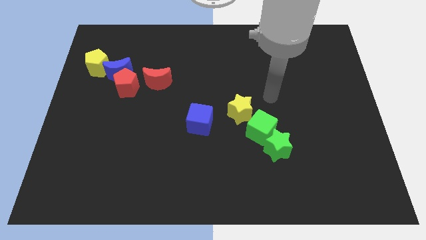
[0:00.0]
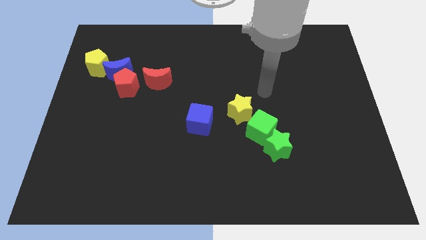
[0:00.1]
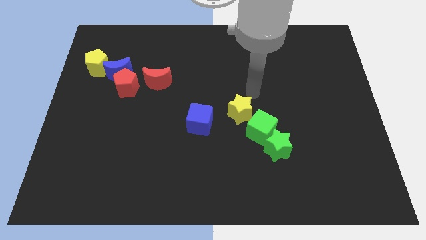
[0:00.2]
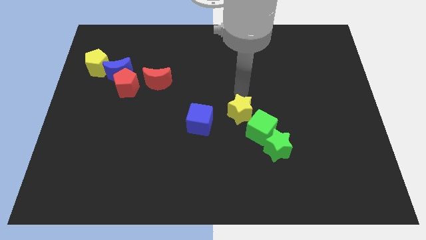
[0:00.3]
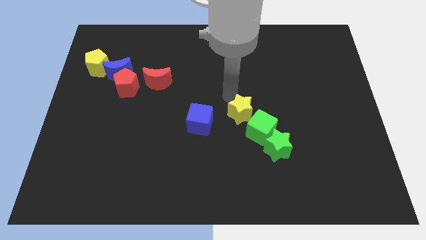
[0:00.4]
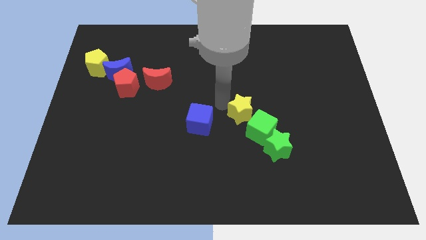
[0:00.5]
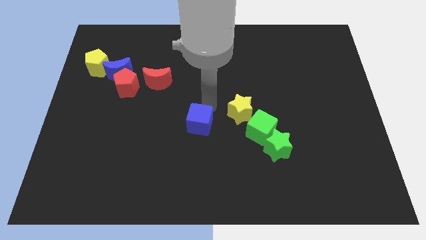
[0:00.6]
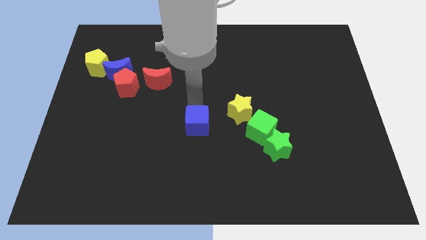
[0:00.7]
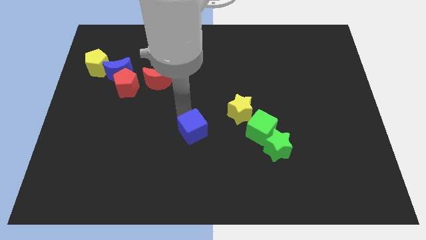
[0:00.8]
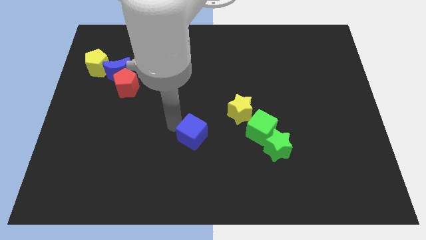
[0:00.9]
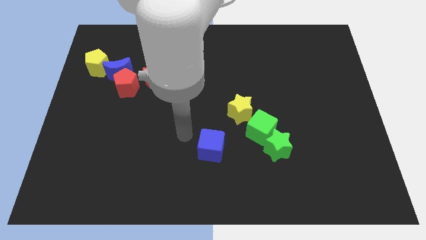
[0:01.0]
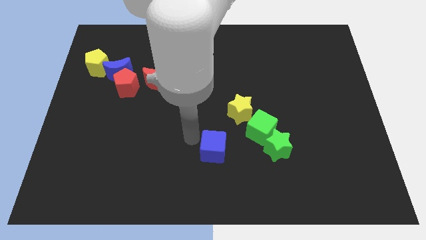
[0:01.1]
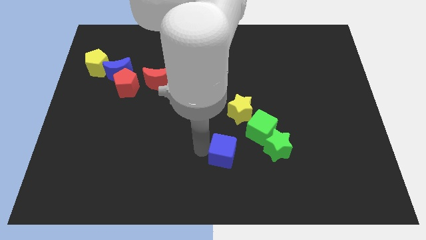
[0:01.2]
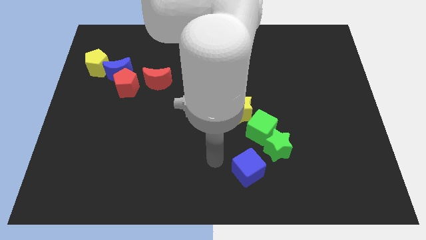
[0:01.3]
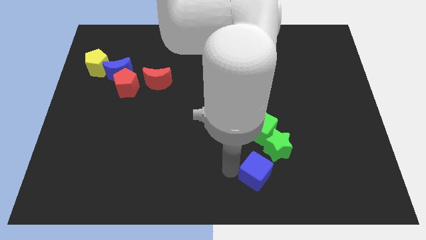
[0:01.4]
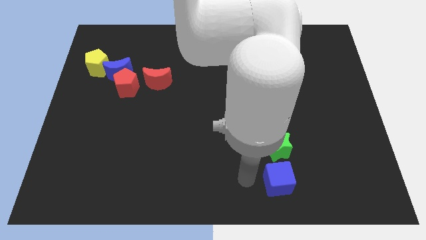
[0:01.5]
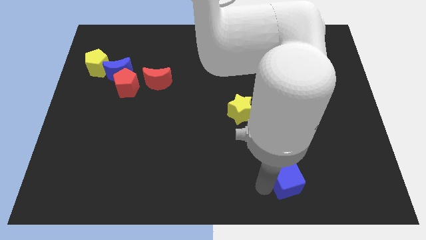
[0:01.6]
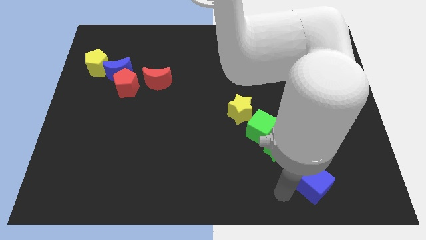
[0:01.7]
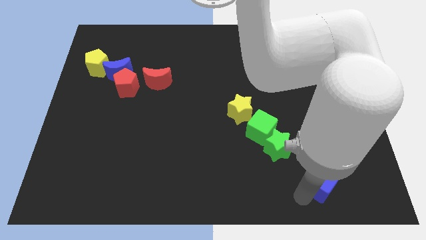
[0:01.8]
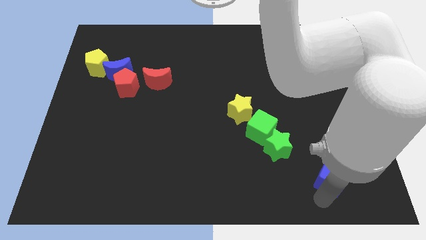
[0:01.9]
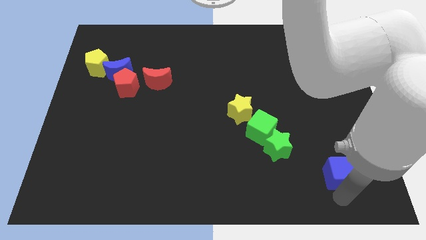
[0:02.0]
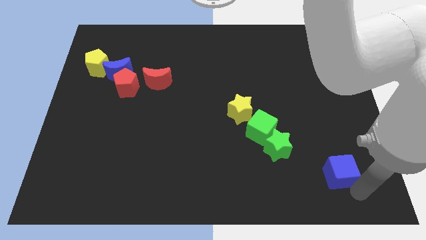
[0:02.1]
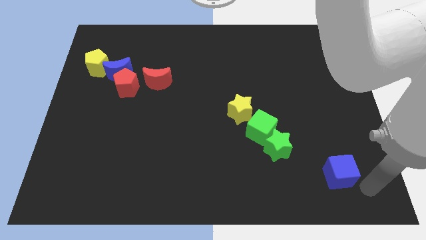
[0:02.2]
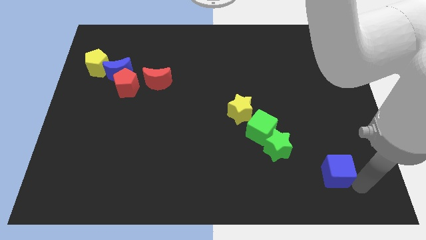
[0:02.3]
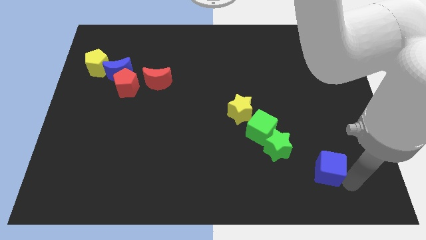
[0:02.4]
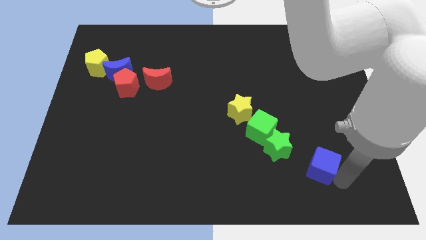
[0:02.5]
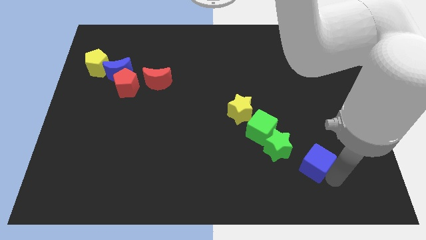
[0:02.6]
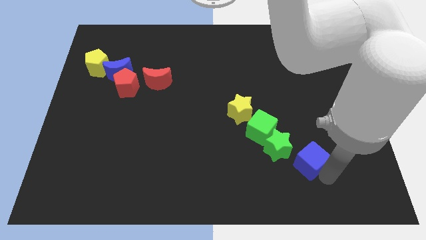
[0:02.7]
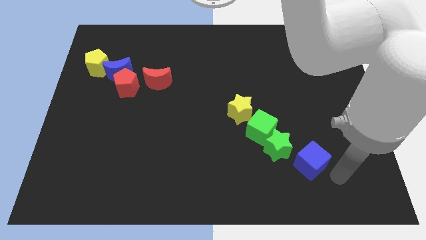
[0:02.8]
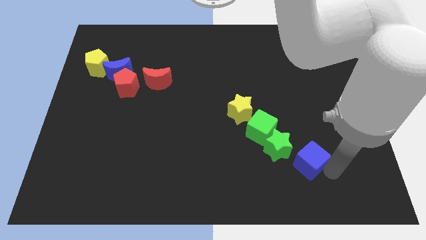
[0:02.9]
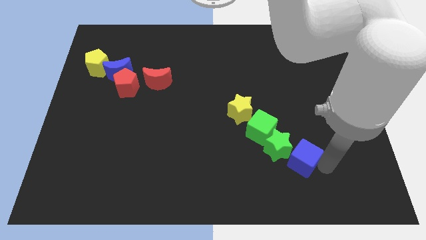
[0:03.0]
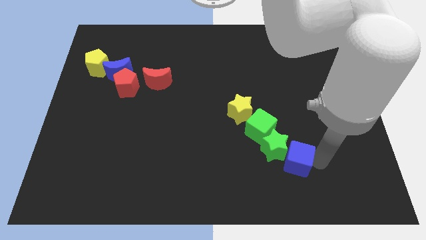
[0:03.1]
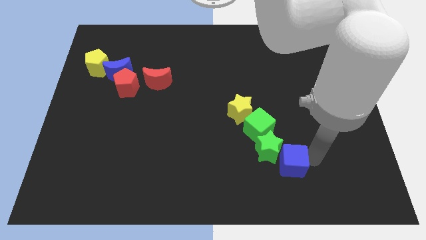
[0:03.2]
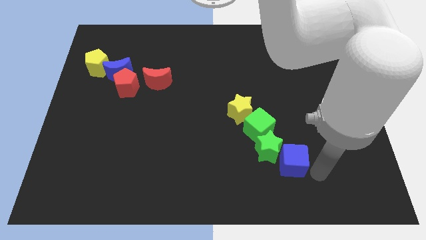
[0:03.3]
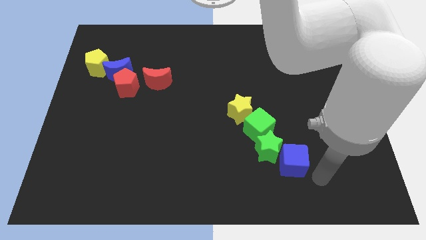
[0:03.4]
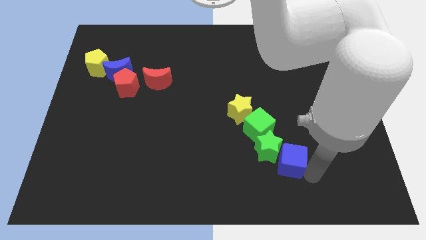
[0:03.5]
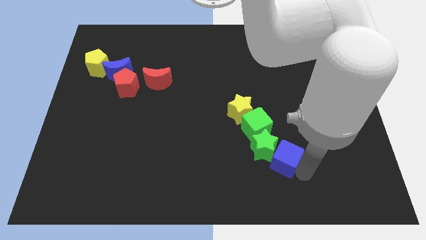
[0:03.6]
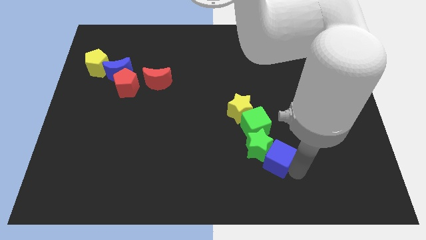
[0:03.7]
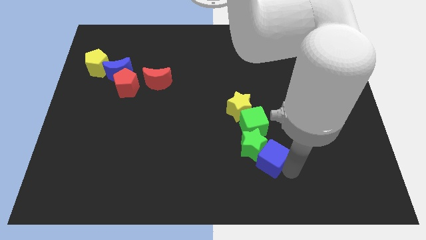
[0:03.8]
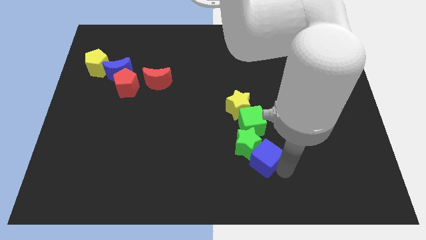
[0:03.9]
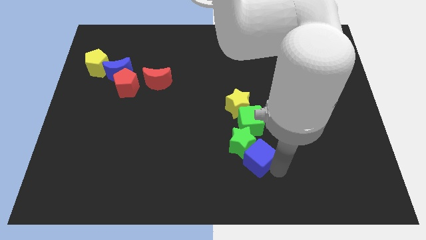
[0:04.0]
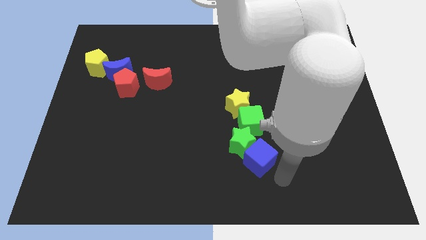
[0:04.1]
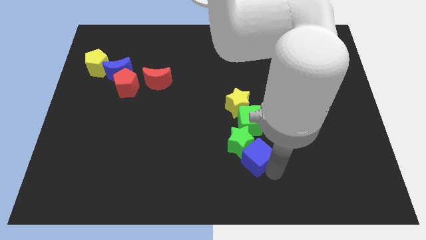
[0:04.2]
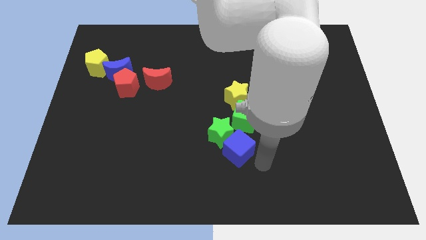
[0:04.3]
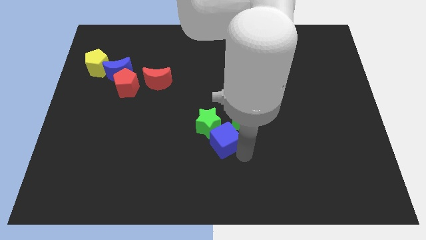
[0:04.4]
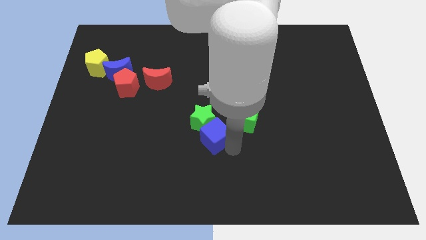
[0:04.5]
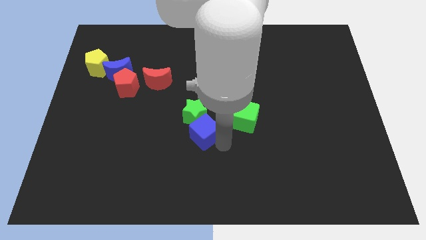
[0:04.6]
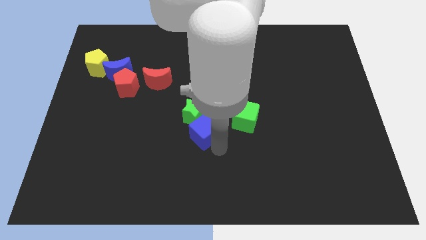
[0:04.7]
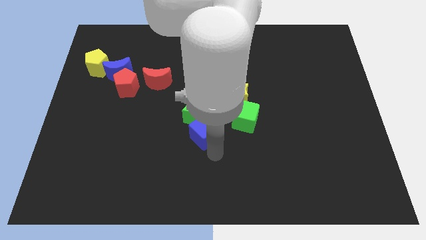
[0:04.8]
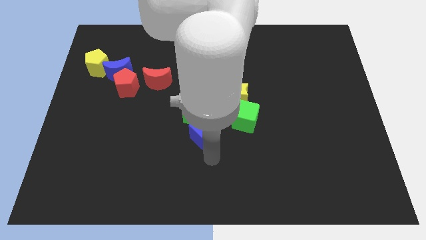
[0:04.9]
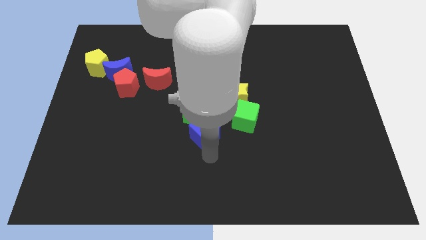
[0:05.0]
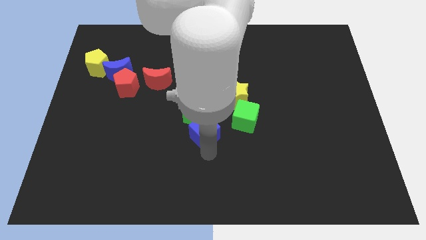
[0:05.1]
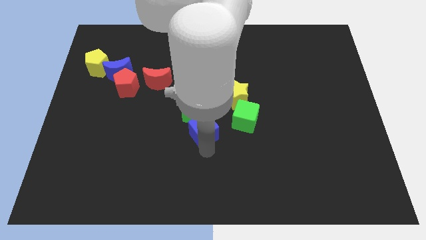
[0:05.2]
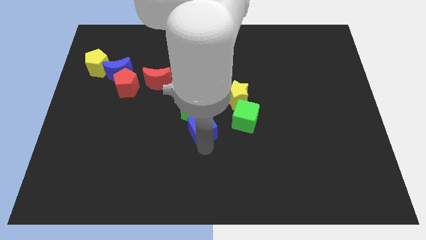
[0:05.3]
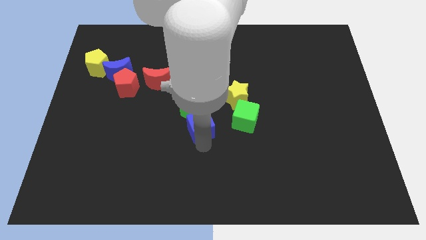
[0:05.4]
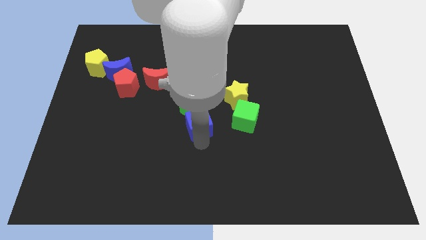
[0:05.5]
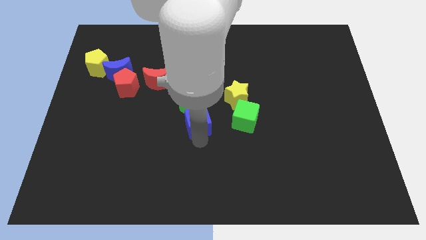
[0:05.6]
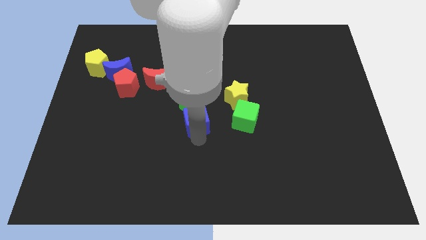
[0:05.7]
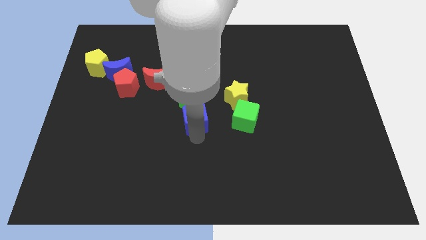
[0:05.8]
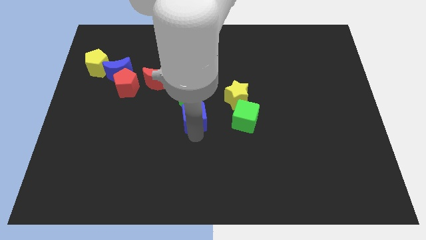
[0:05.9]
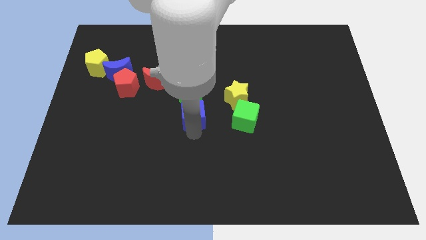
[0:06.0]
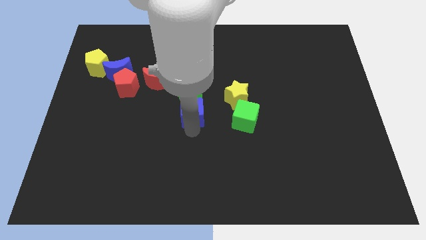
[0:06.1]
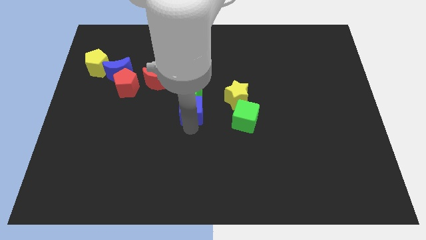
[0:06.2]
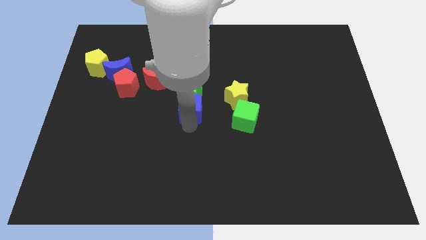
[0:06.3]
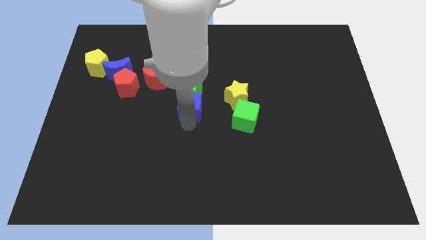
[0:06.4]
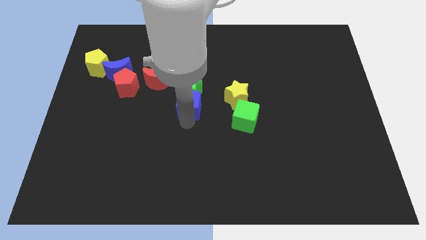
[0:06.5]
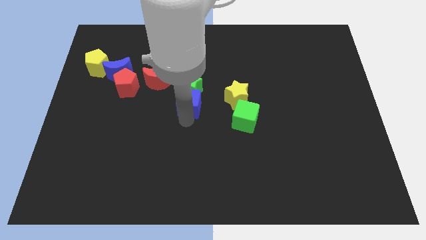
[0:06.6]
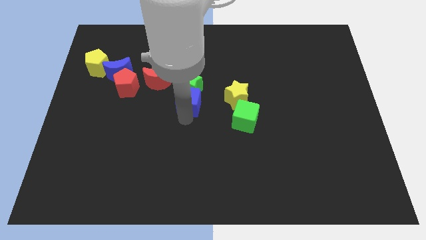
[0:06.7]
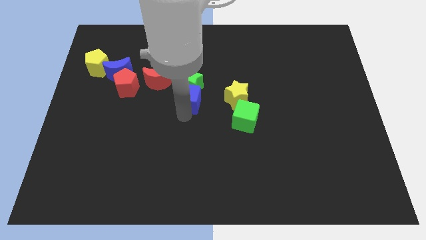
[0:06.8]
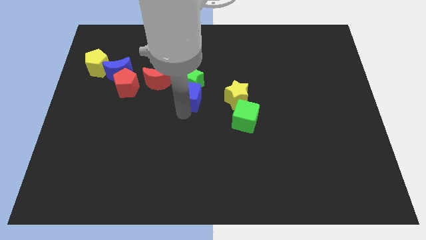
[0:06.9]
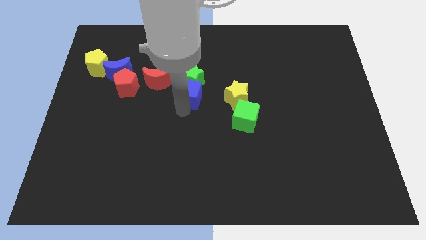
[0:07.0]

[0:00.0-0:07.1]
slightly move the blue cube up

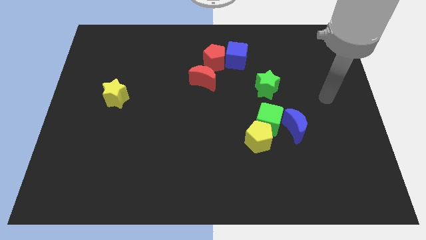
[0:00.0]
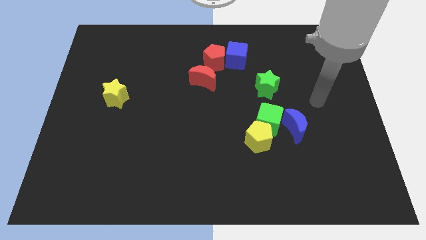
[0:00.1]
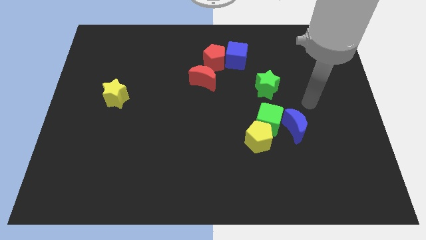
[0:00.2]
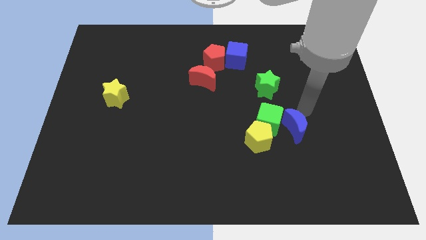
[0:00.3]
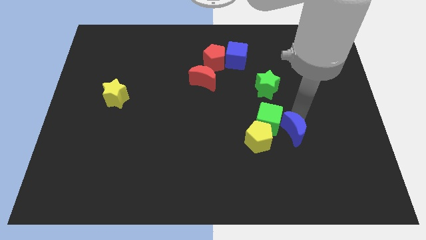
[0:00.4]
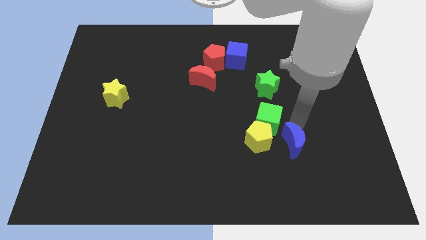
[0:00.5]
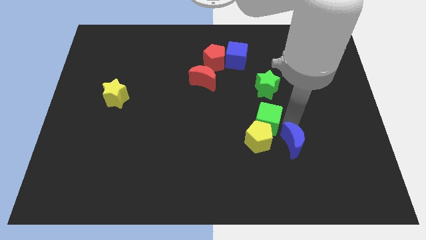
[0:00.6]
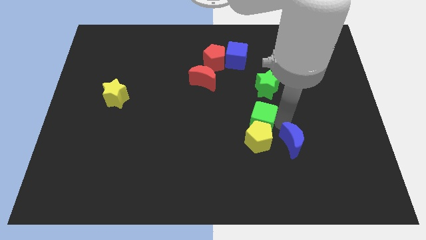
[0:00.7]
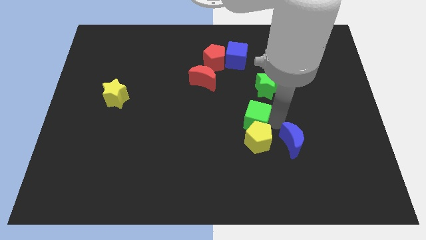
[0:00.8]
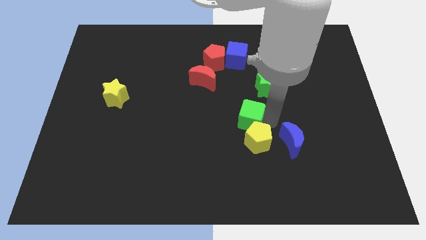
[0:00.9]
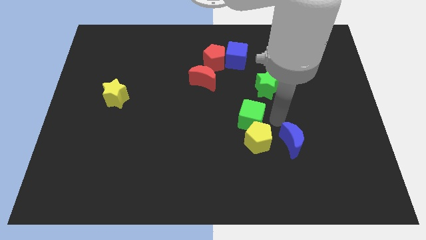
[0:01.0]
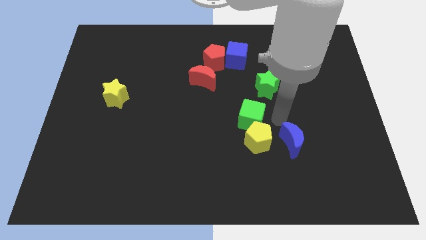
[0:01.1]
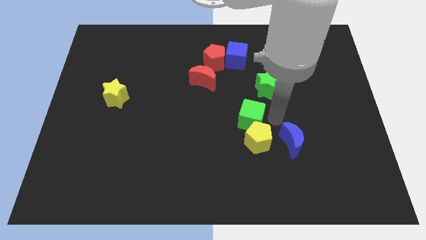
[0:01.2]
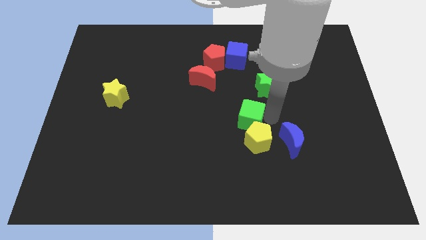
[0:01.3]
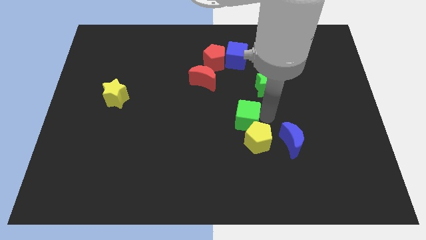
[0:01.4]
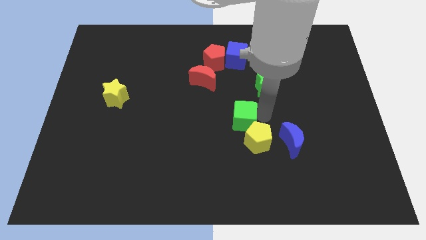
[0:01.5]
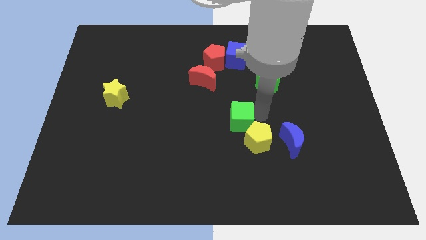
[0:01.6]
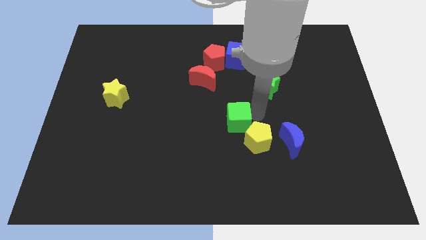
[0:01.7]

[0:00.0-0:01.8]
slightly slide the green cube to the left
